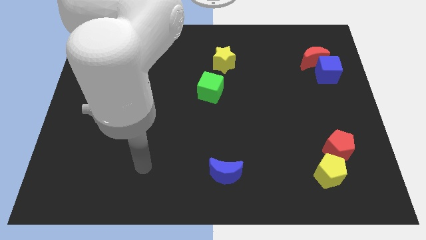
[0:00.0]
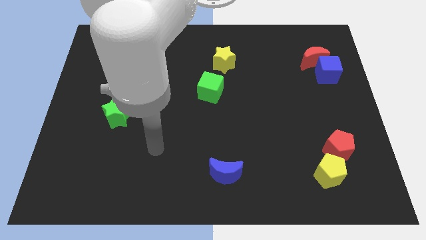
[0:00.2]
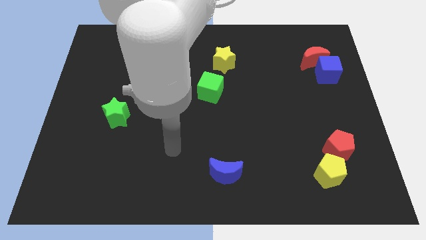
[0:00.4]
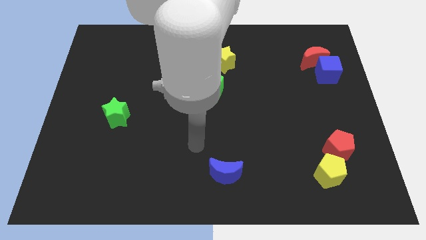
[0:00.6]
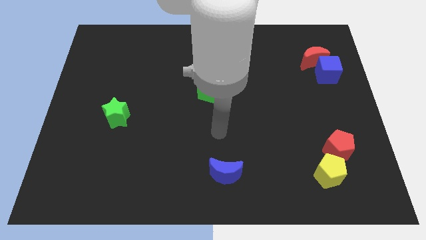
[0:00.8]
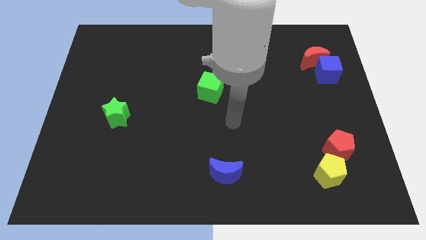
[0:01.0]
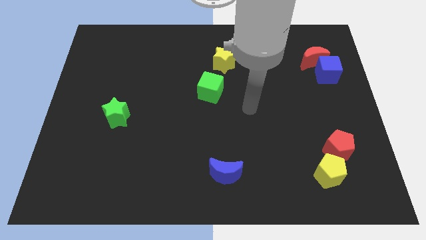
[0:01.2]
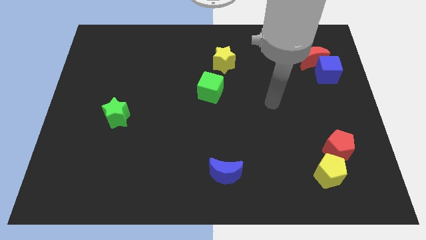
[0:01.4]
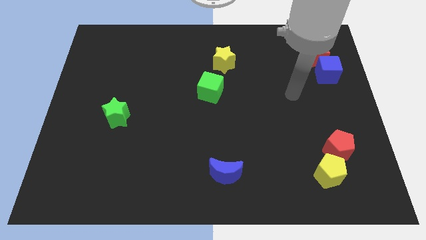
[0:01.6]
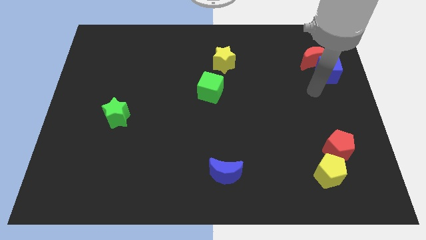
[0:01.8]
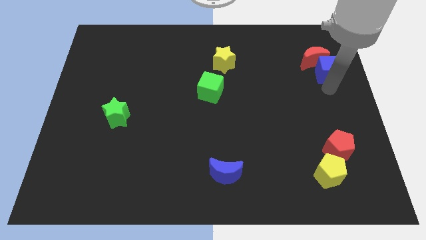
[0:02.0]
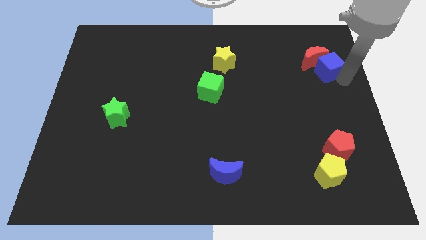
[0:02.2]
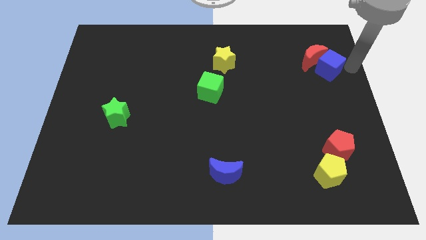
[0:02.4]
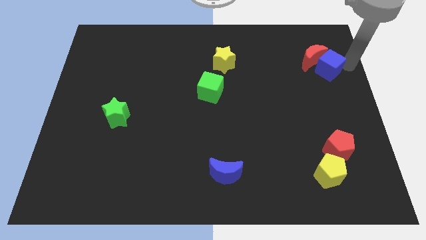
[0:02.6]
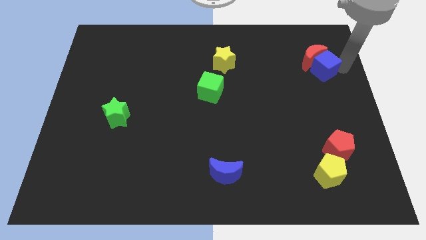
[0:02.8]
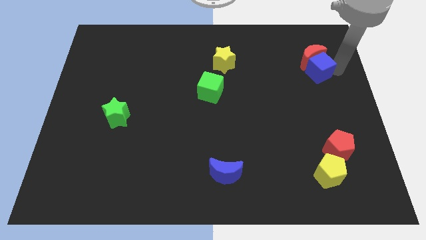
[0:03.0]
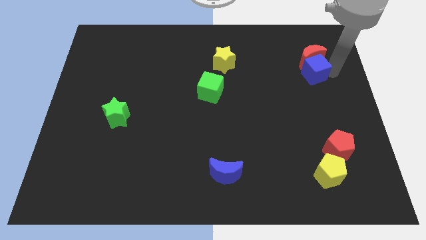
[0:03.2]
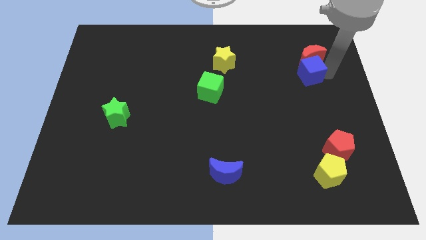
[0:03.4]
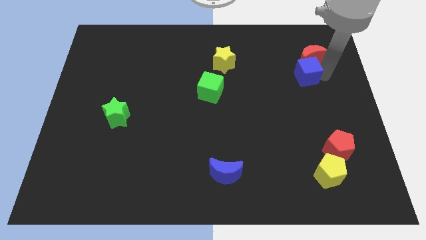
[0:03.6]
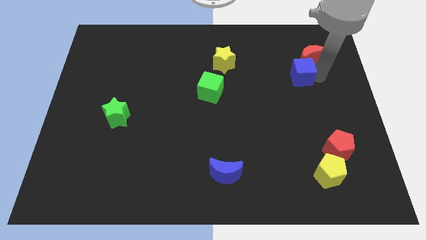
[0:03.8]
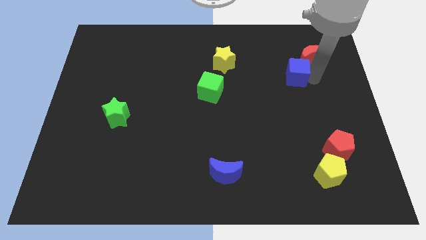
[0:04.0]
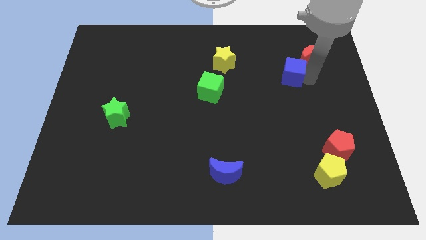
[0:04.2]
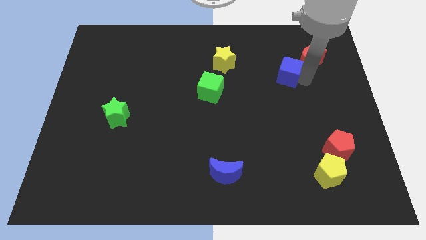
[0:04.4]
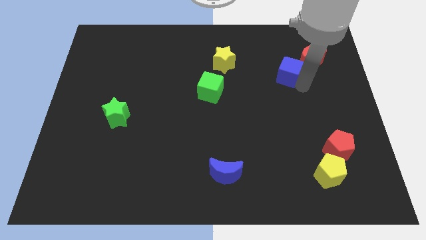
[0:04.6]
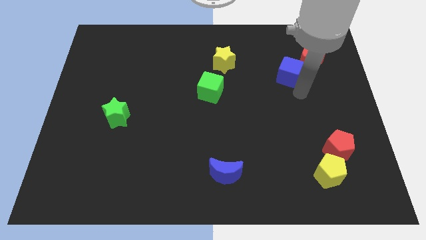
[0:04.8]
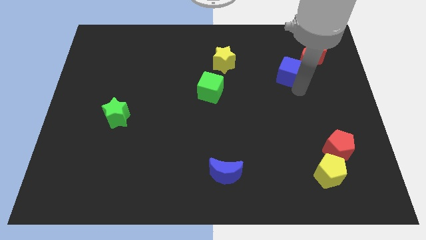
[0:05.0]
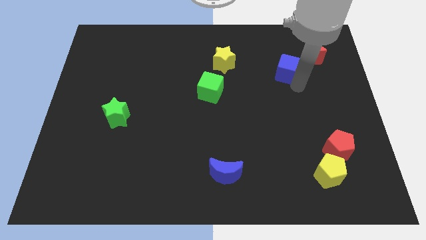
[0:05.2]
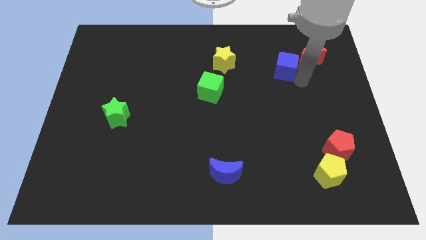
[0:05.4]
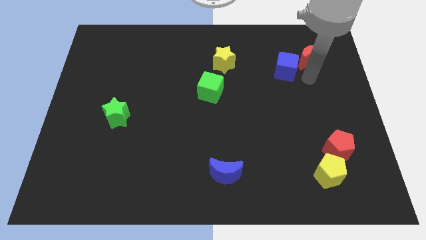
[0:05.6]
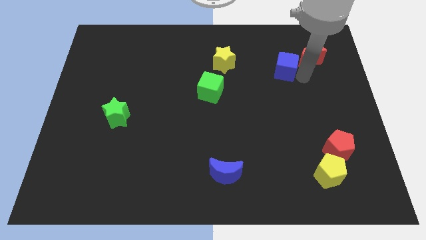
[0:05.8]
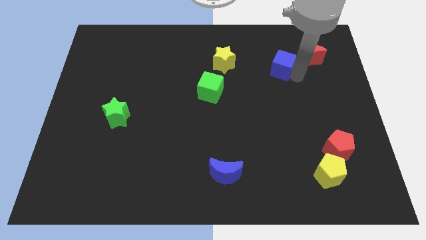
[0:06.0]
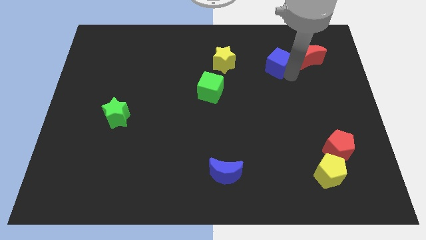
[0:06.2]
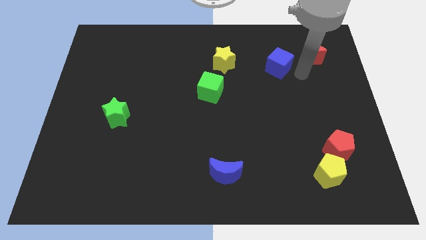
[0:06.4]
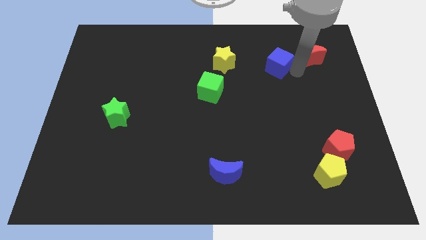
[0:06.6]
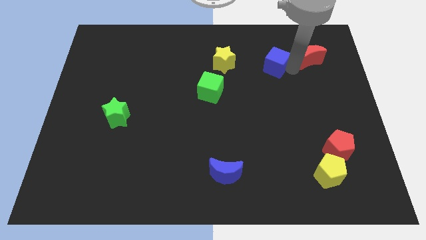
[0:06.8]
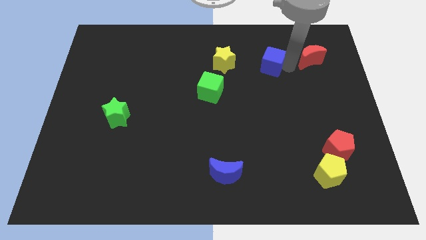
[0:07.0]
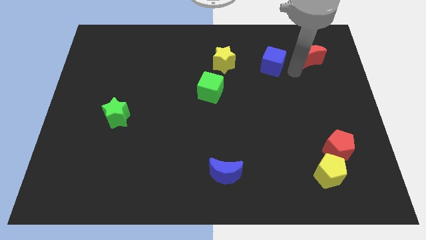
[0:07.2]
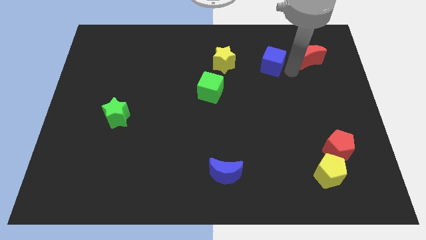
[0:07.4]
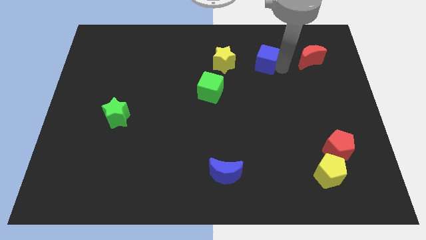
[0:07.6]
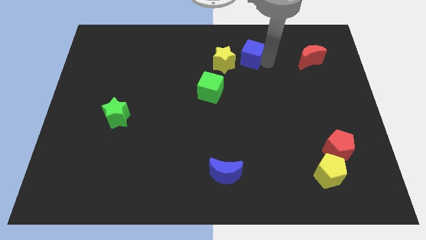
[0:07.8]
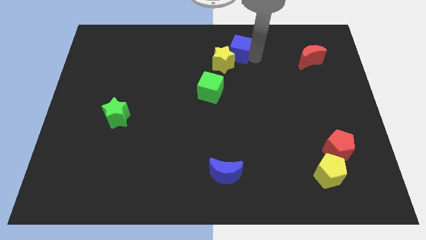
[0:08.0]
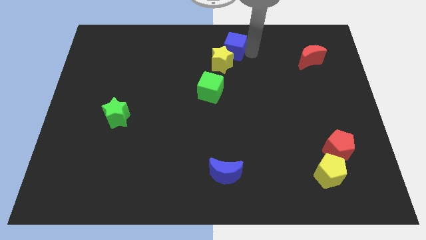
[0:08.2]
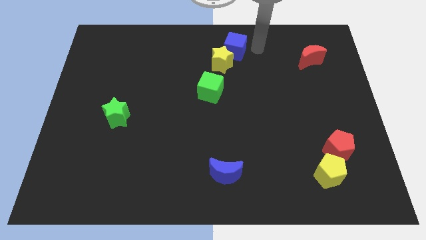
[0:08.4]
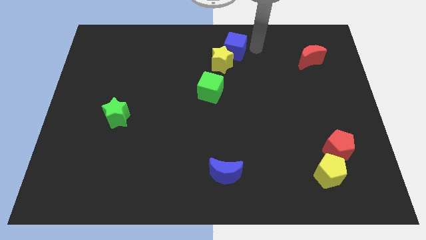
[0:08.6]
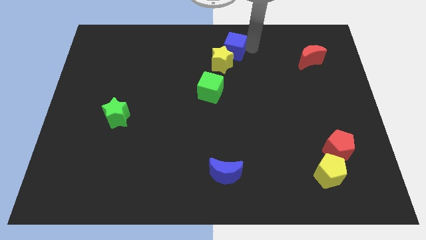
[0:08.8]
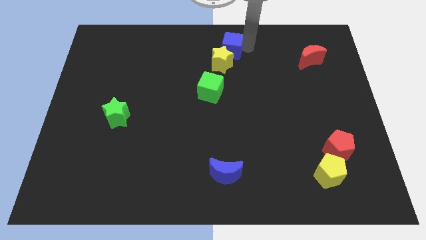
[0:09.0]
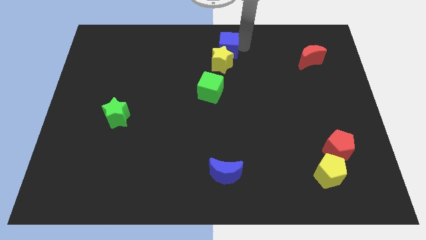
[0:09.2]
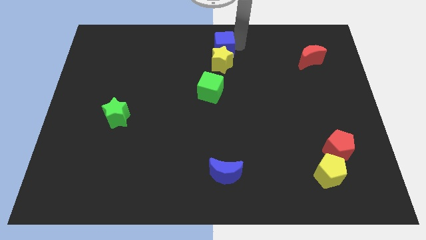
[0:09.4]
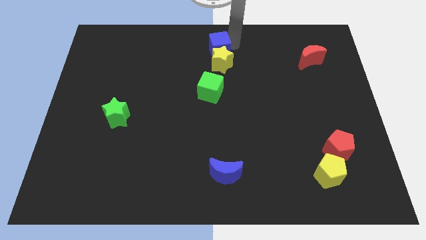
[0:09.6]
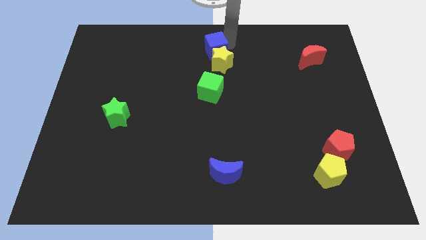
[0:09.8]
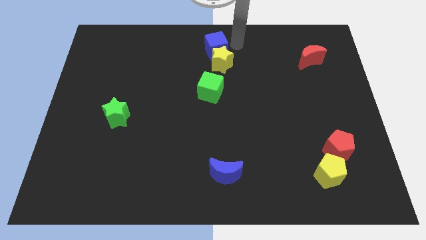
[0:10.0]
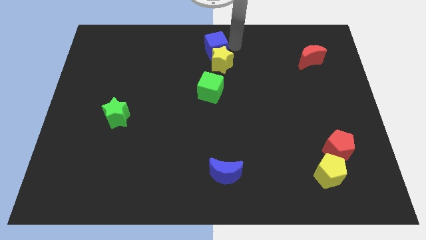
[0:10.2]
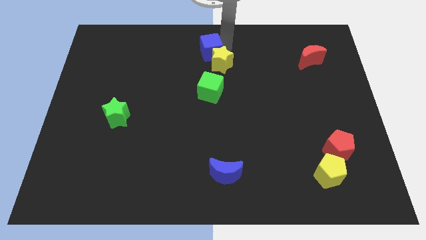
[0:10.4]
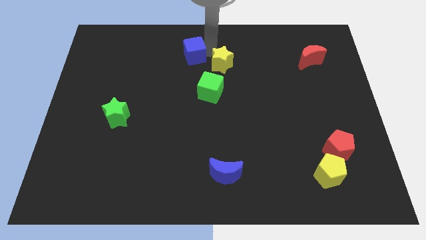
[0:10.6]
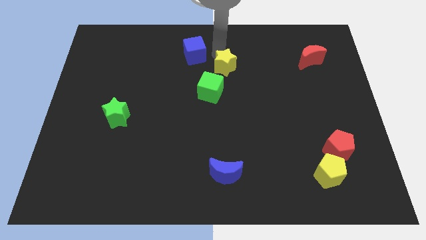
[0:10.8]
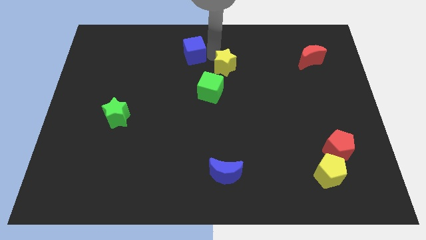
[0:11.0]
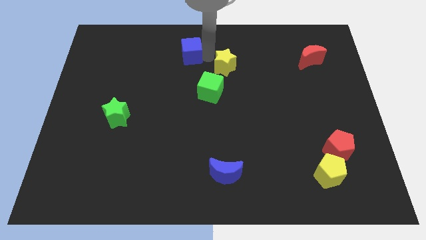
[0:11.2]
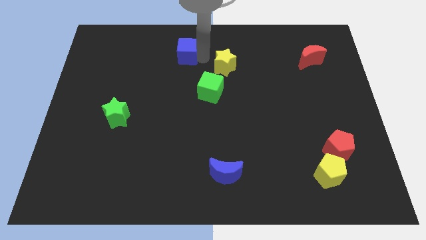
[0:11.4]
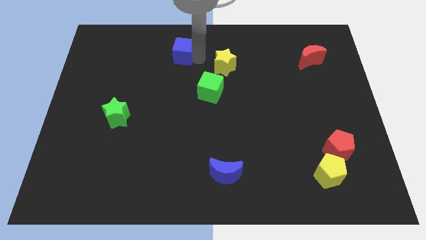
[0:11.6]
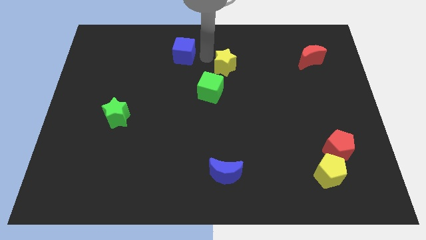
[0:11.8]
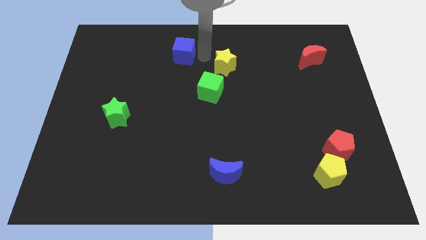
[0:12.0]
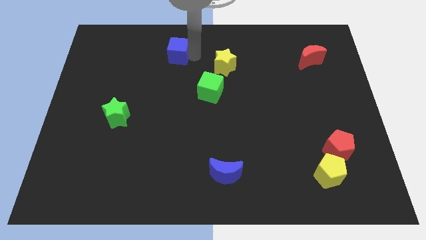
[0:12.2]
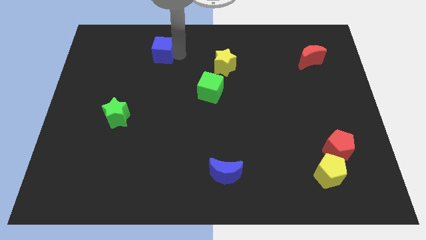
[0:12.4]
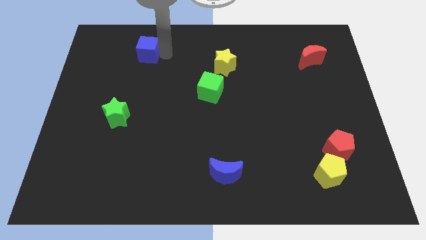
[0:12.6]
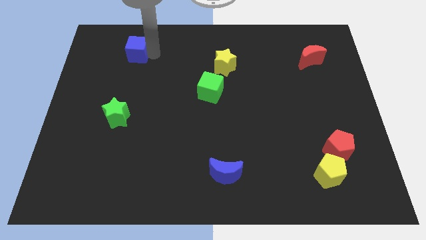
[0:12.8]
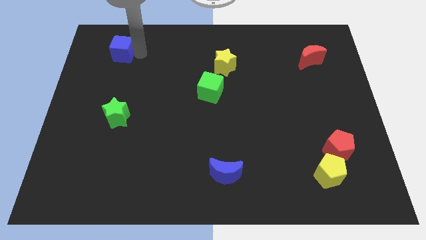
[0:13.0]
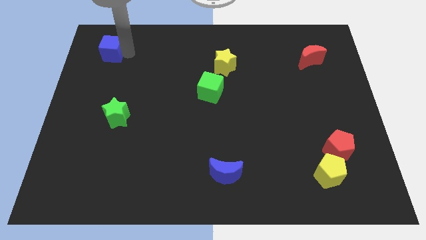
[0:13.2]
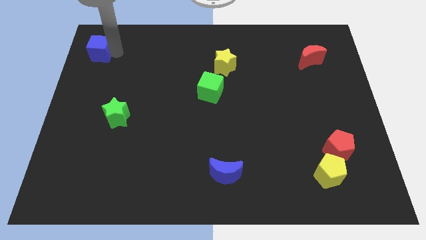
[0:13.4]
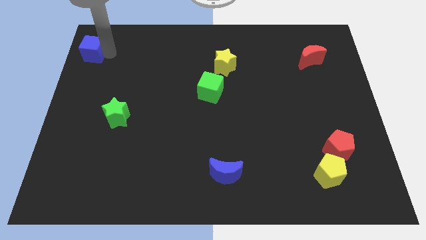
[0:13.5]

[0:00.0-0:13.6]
put the blue cube to the top left

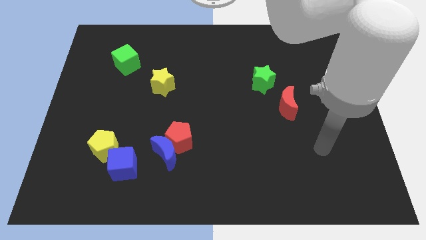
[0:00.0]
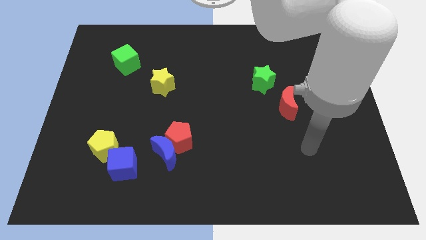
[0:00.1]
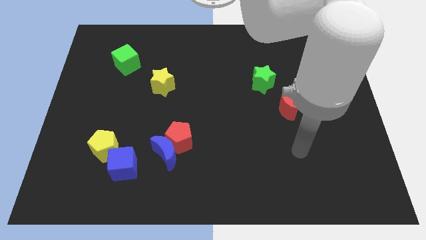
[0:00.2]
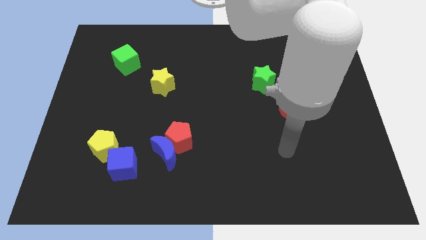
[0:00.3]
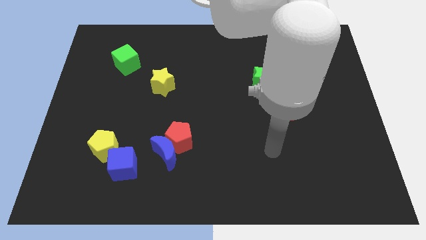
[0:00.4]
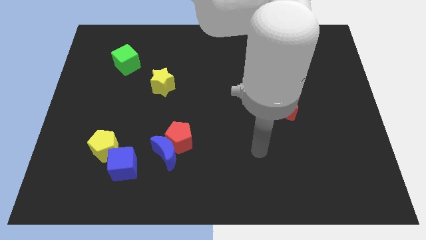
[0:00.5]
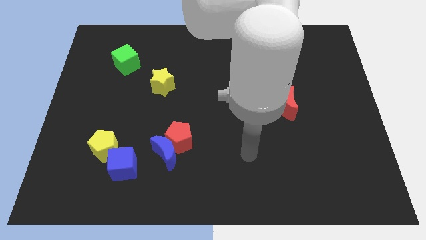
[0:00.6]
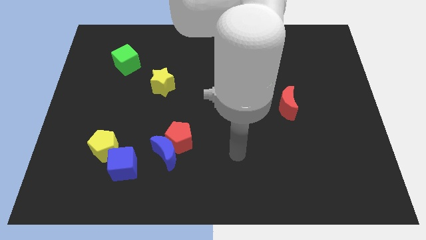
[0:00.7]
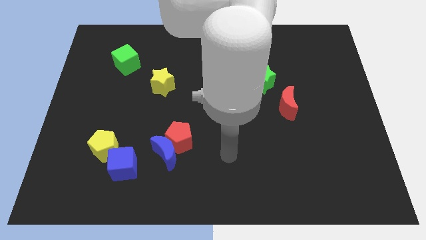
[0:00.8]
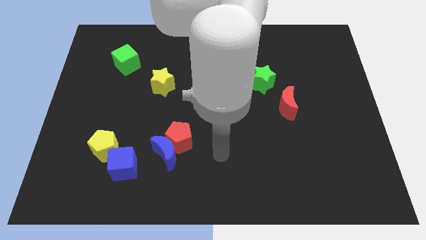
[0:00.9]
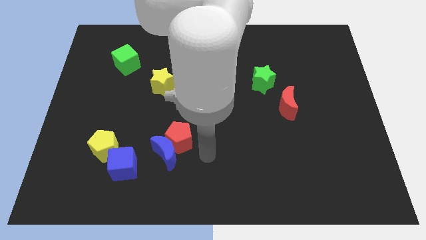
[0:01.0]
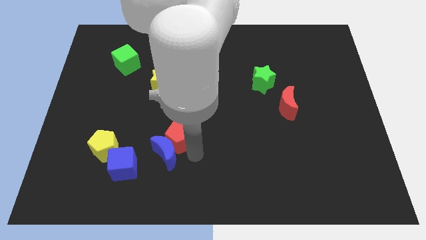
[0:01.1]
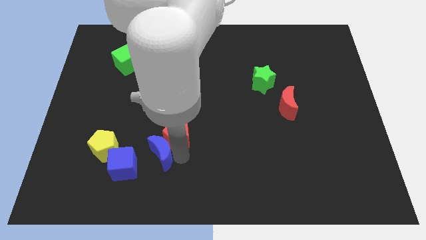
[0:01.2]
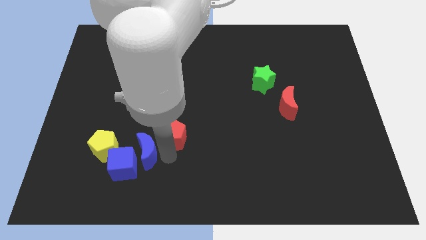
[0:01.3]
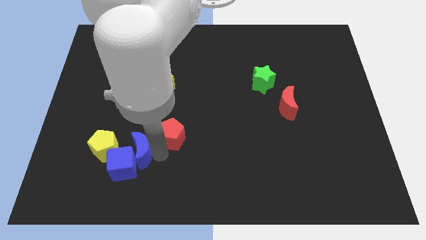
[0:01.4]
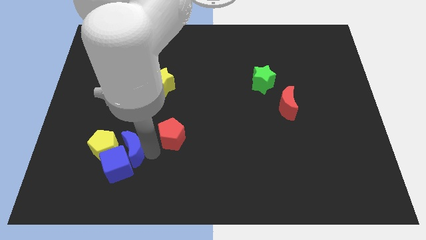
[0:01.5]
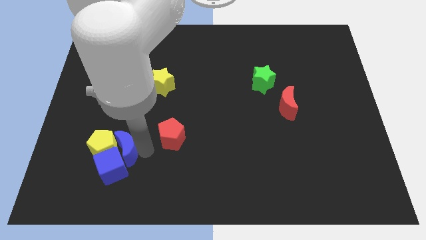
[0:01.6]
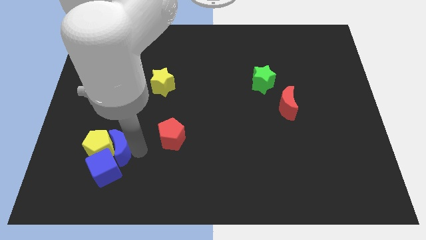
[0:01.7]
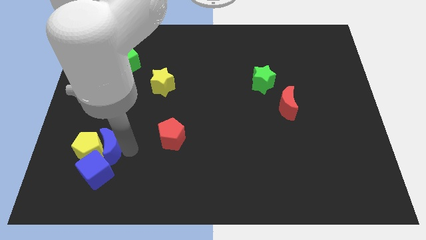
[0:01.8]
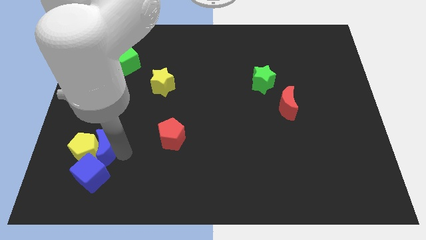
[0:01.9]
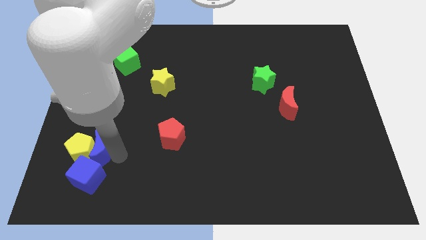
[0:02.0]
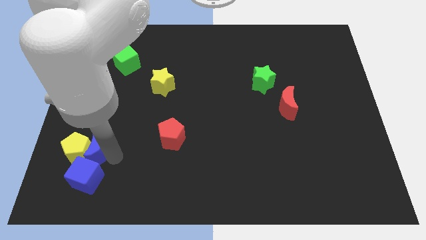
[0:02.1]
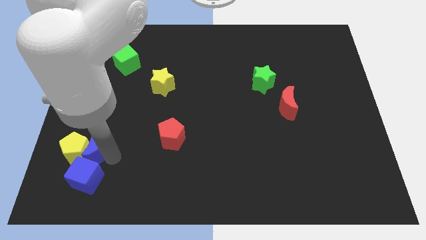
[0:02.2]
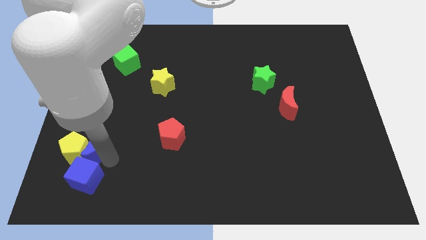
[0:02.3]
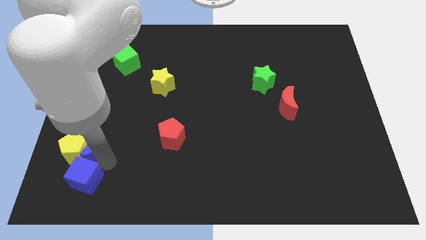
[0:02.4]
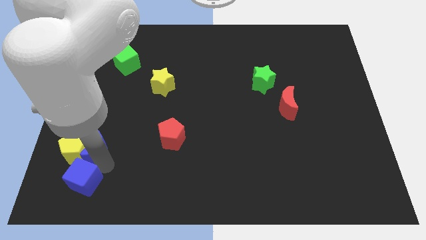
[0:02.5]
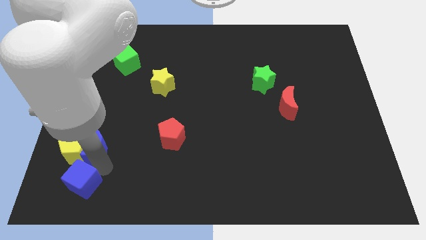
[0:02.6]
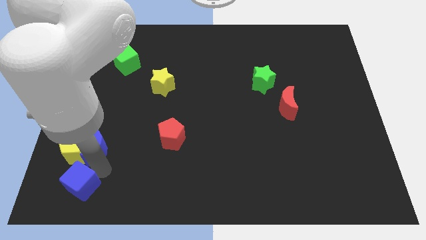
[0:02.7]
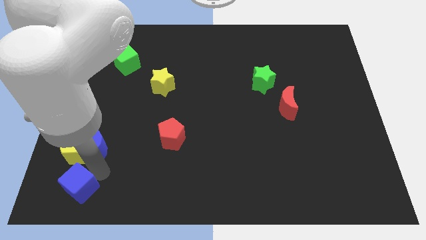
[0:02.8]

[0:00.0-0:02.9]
push the blue cube to the lower left corner
